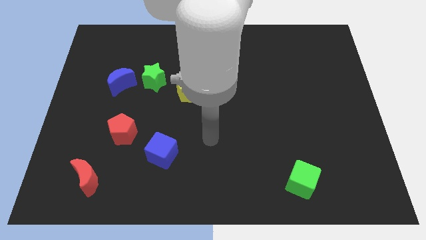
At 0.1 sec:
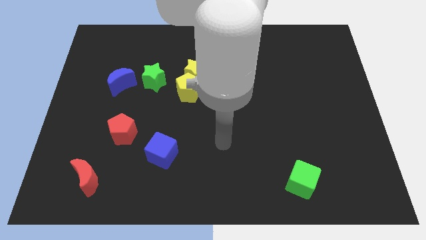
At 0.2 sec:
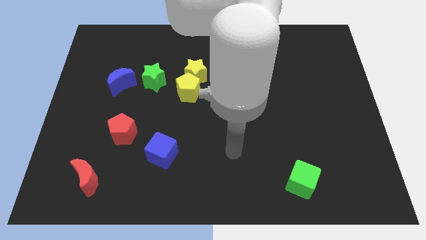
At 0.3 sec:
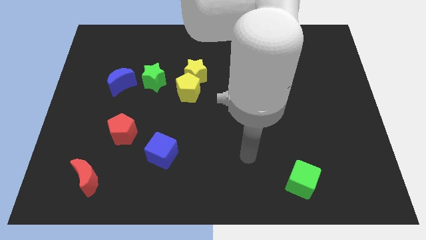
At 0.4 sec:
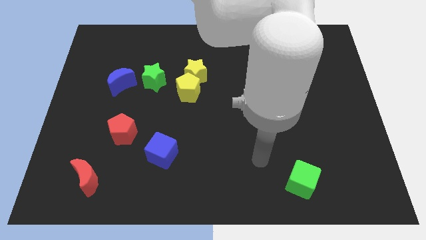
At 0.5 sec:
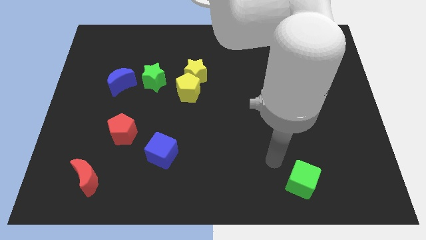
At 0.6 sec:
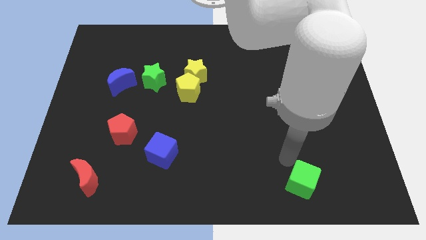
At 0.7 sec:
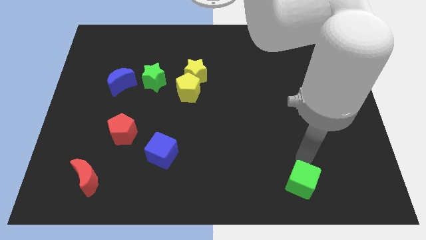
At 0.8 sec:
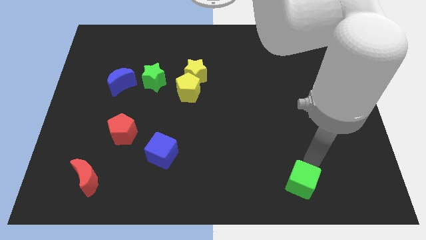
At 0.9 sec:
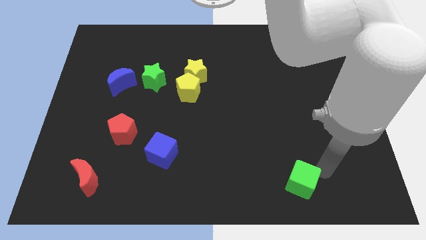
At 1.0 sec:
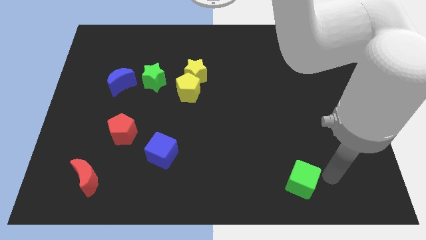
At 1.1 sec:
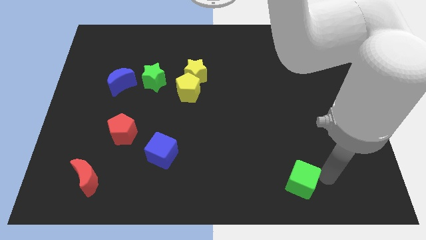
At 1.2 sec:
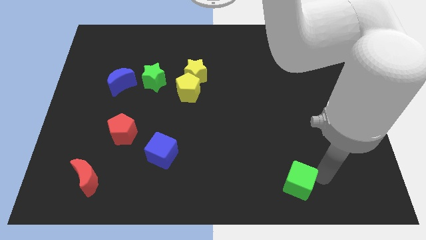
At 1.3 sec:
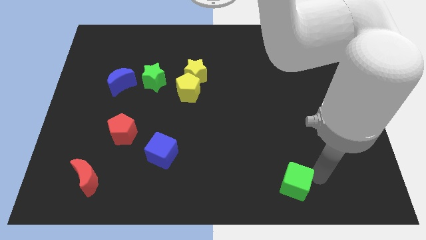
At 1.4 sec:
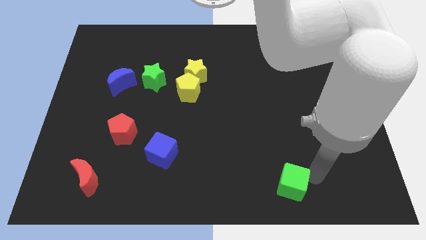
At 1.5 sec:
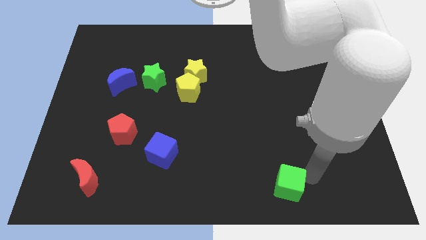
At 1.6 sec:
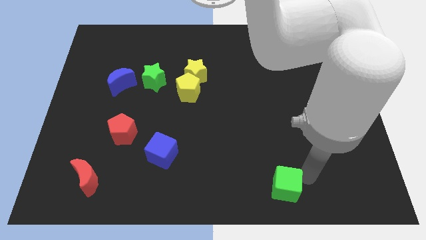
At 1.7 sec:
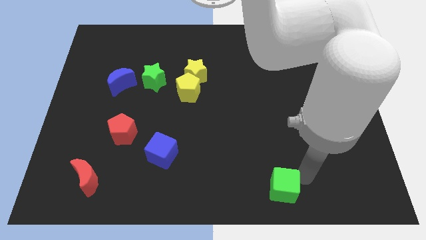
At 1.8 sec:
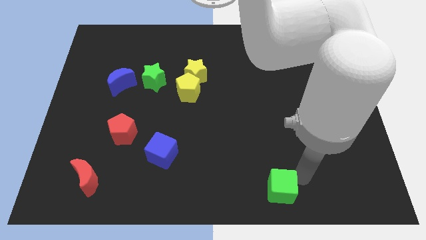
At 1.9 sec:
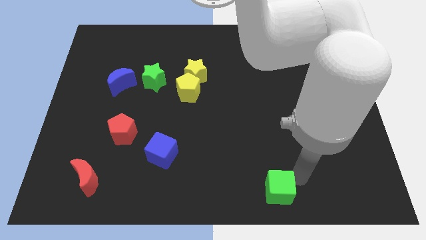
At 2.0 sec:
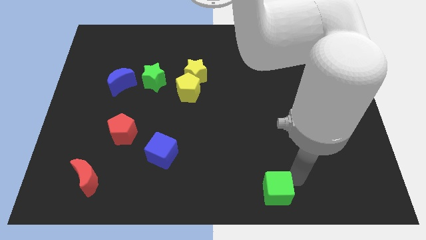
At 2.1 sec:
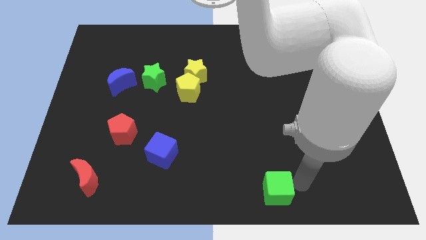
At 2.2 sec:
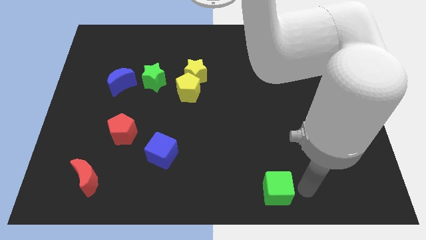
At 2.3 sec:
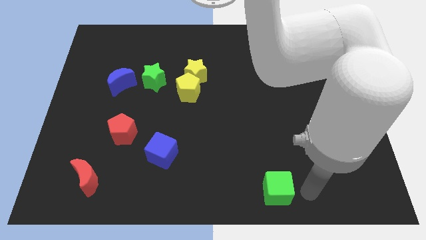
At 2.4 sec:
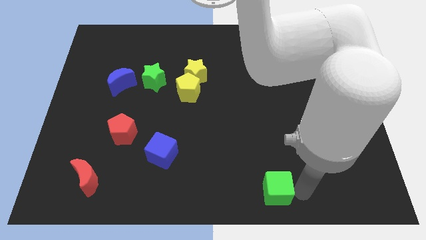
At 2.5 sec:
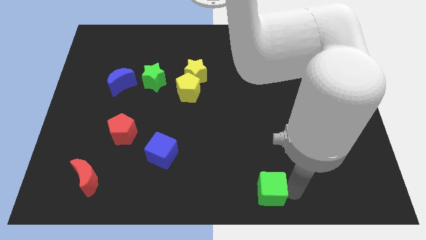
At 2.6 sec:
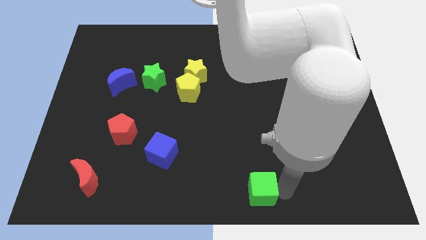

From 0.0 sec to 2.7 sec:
slide the green cube left a little

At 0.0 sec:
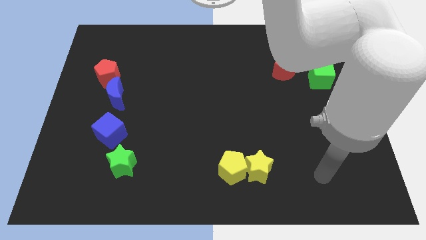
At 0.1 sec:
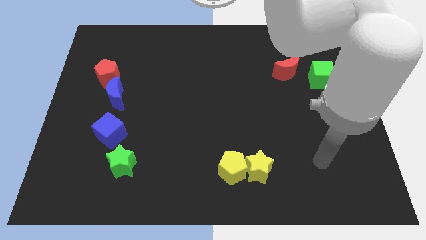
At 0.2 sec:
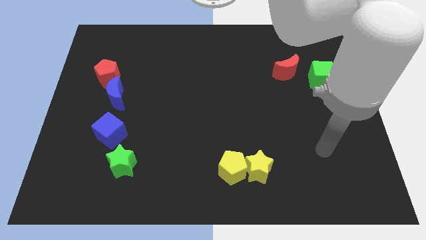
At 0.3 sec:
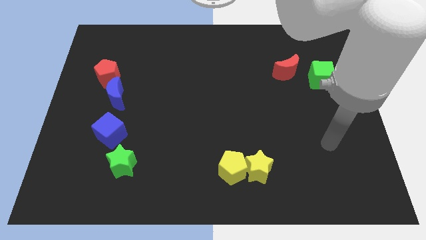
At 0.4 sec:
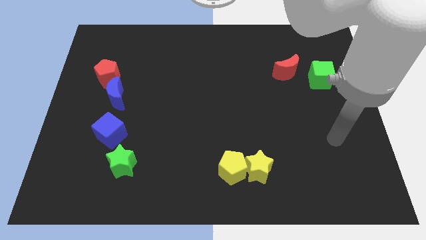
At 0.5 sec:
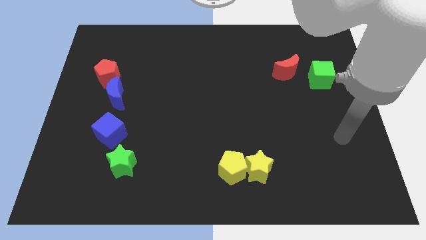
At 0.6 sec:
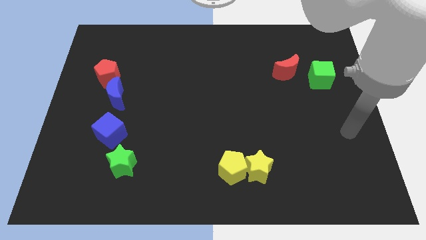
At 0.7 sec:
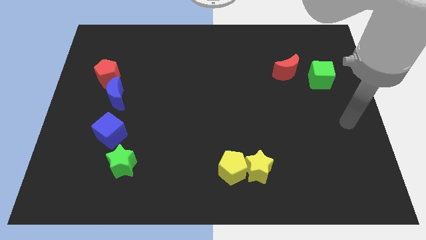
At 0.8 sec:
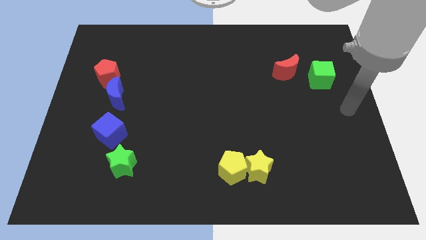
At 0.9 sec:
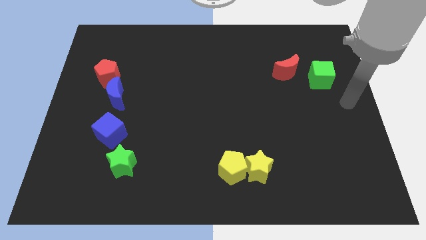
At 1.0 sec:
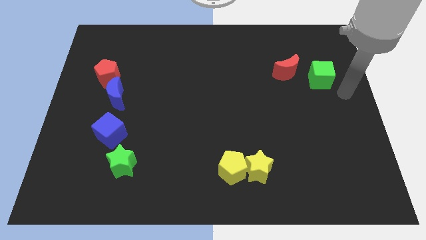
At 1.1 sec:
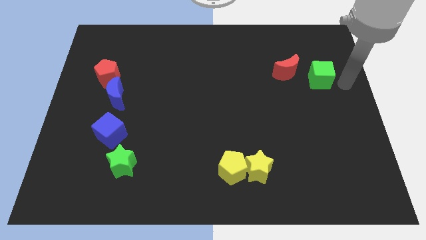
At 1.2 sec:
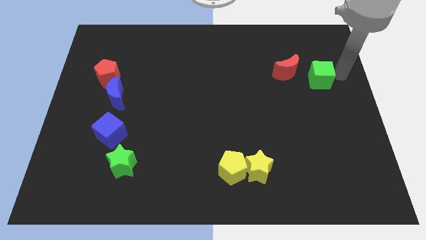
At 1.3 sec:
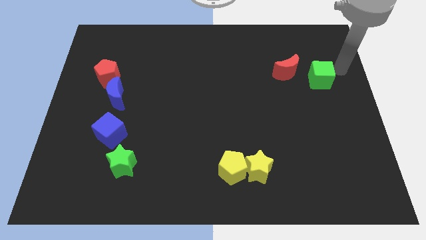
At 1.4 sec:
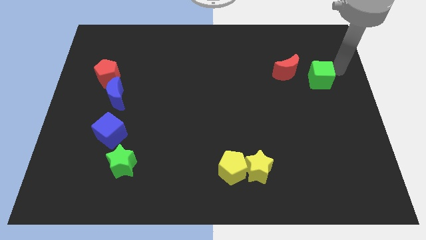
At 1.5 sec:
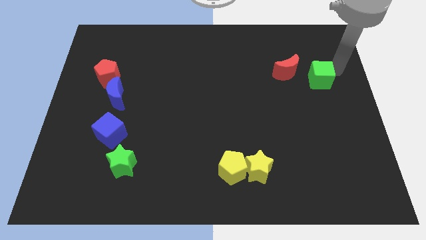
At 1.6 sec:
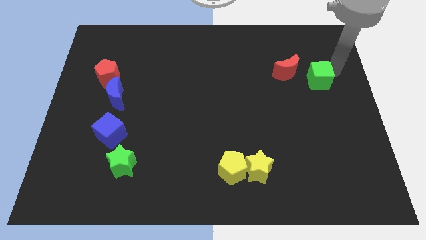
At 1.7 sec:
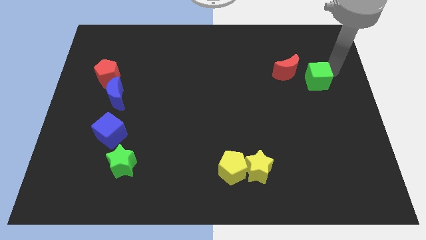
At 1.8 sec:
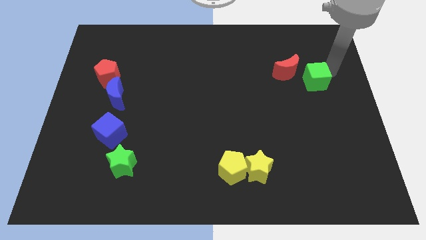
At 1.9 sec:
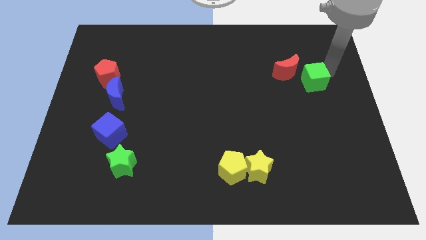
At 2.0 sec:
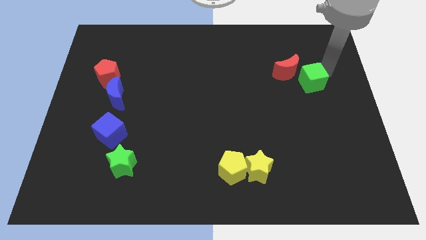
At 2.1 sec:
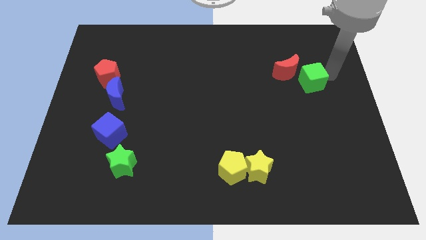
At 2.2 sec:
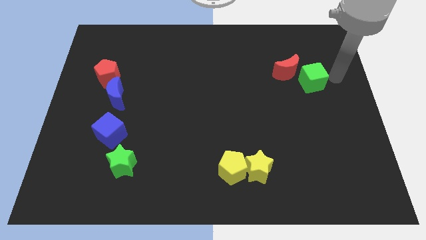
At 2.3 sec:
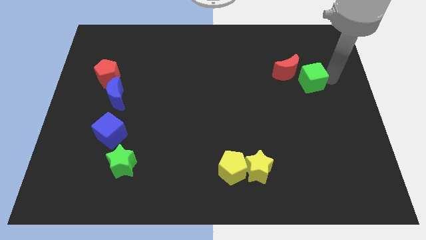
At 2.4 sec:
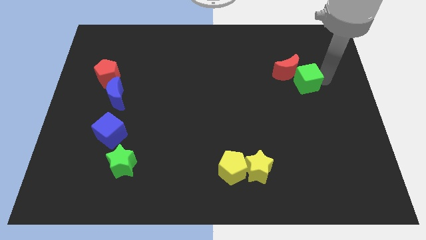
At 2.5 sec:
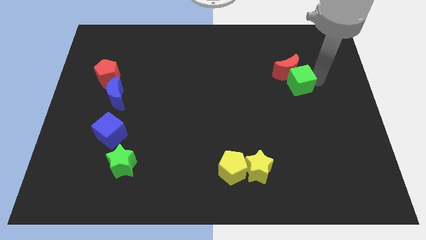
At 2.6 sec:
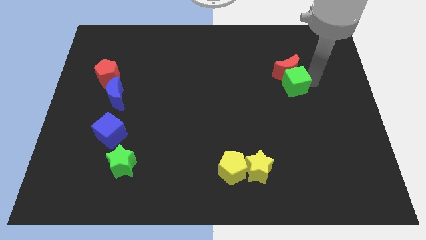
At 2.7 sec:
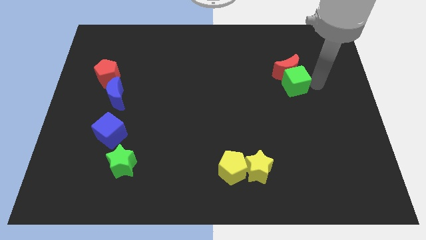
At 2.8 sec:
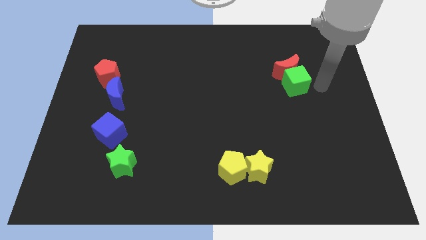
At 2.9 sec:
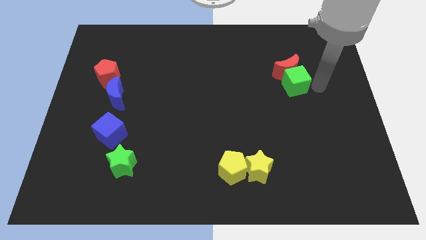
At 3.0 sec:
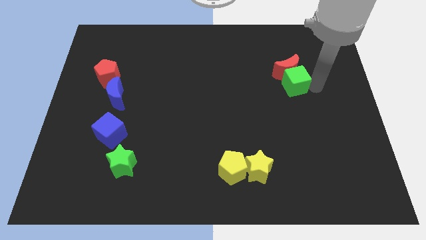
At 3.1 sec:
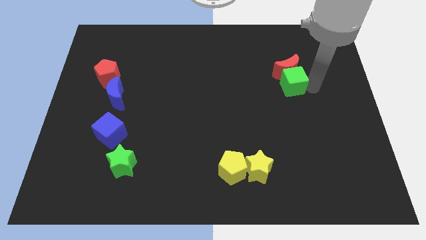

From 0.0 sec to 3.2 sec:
move the green cube a bit left

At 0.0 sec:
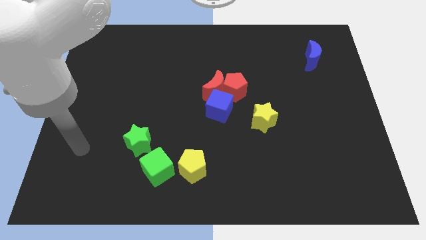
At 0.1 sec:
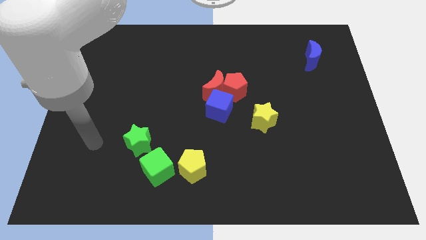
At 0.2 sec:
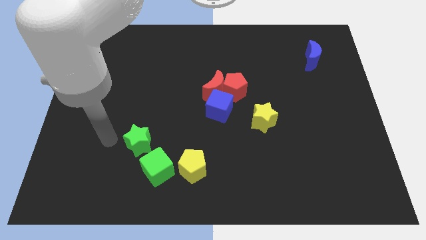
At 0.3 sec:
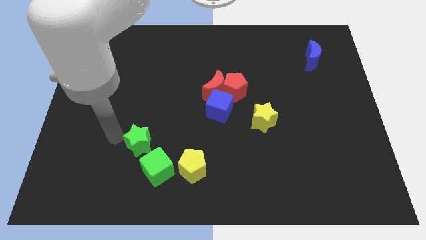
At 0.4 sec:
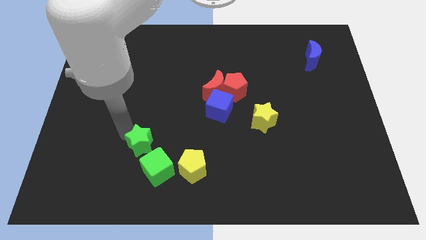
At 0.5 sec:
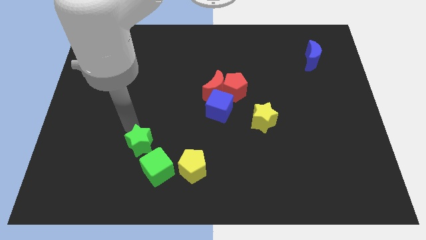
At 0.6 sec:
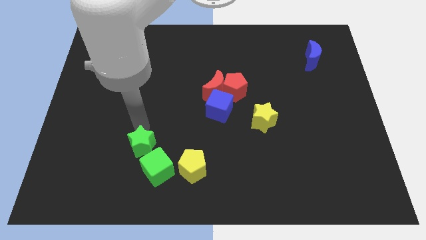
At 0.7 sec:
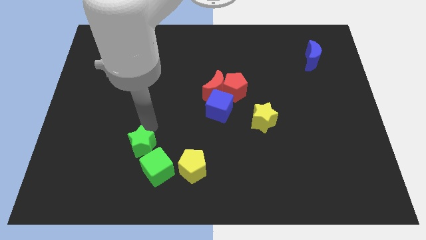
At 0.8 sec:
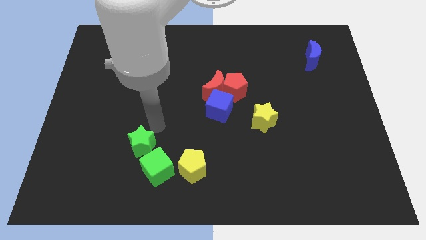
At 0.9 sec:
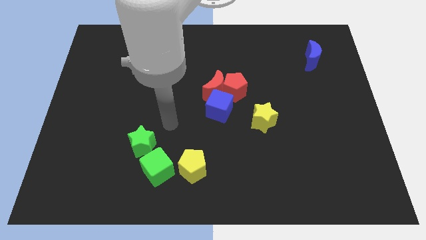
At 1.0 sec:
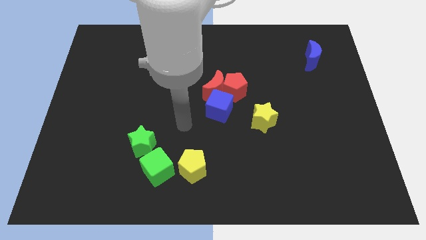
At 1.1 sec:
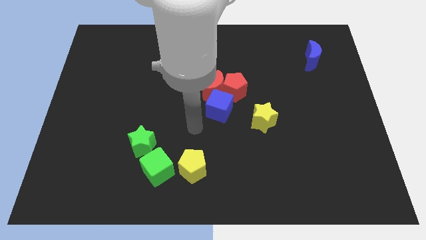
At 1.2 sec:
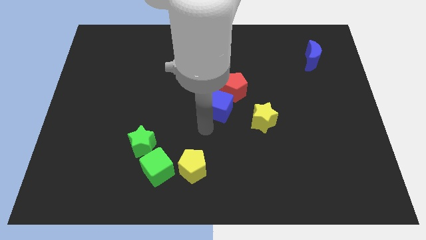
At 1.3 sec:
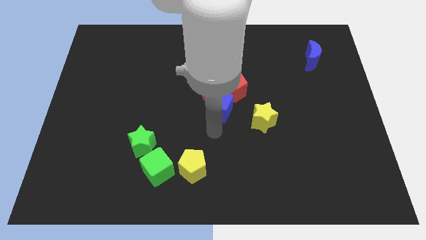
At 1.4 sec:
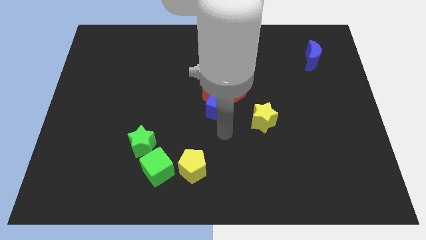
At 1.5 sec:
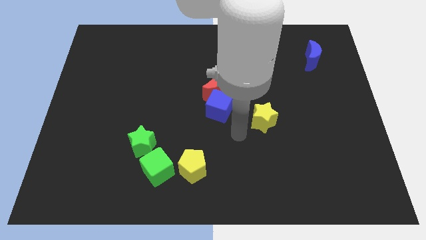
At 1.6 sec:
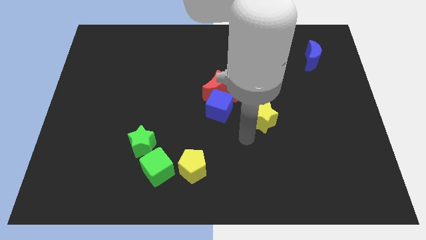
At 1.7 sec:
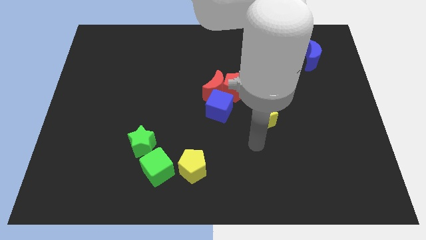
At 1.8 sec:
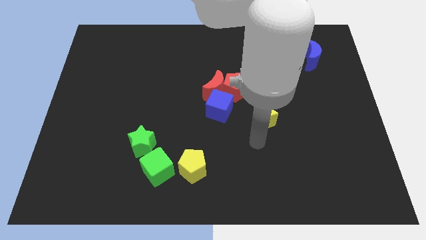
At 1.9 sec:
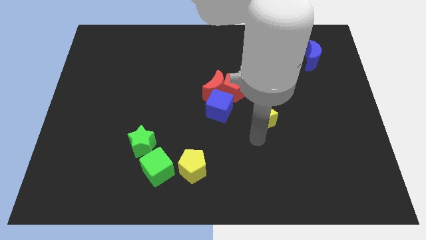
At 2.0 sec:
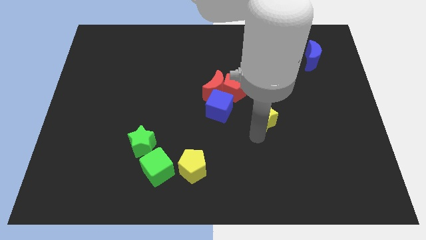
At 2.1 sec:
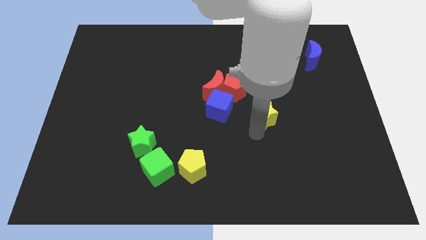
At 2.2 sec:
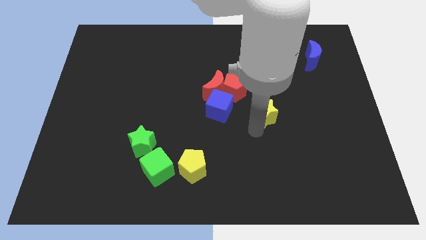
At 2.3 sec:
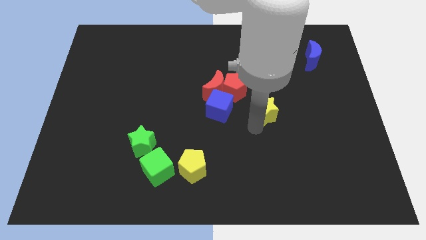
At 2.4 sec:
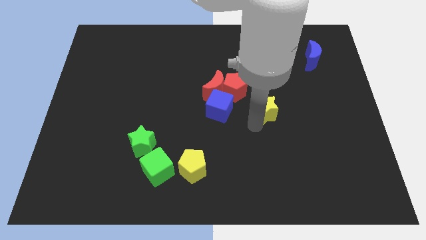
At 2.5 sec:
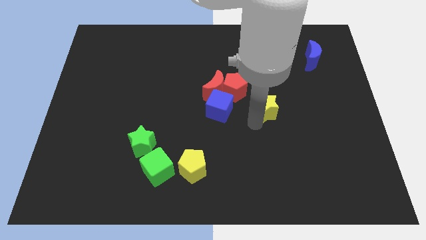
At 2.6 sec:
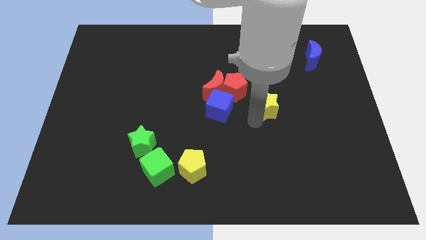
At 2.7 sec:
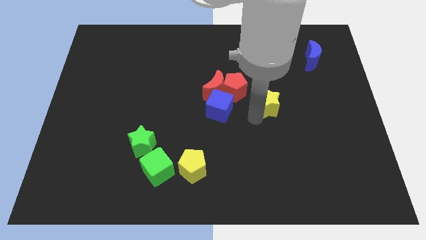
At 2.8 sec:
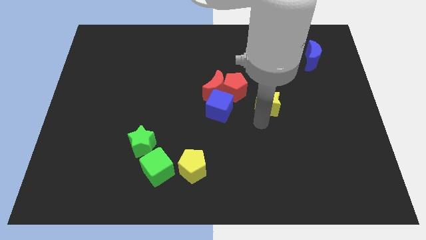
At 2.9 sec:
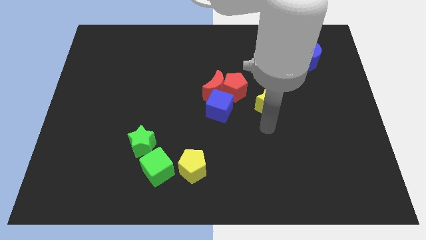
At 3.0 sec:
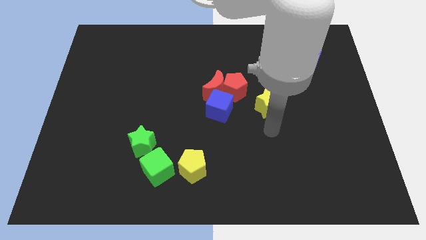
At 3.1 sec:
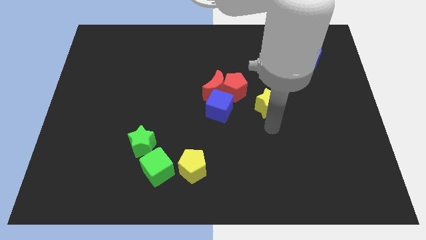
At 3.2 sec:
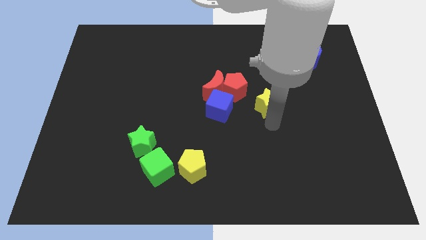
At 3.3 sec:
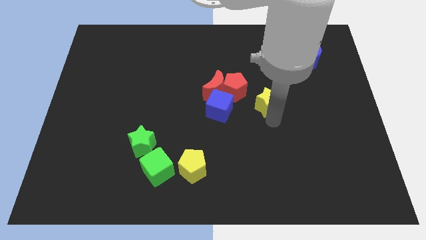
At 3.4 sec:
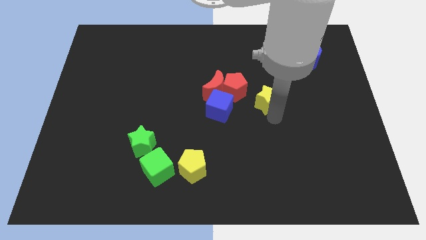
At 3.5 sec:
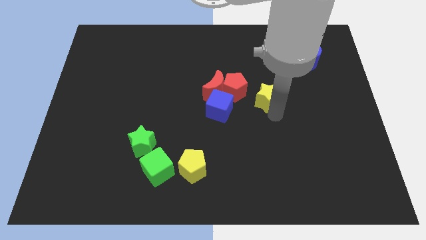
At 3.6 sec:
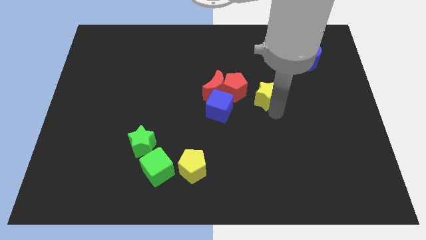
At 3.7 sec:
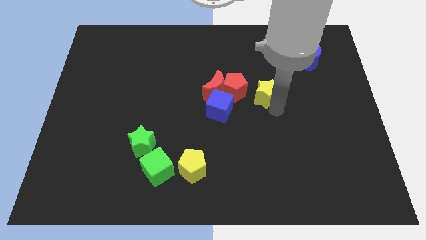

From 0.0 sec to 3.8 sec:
push the yellow star up slightly
